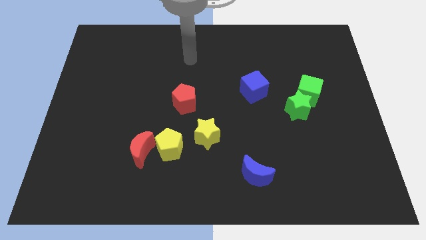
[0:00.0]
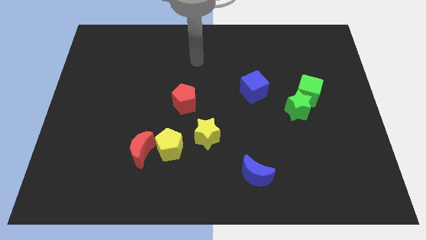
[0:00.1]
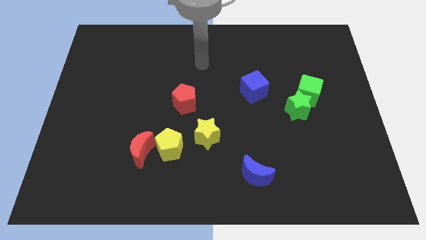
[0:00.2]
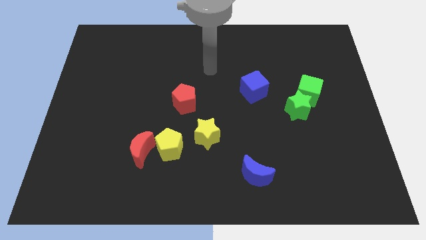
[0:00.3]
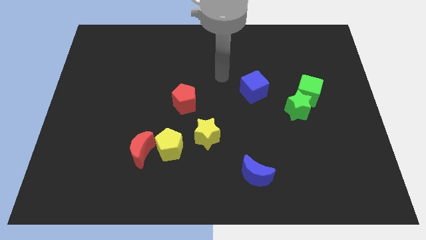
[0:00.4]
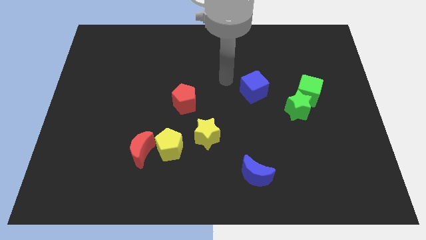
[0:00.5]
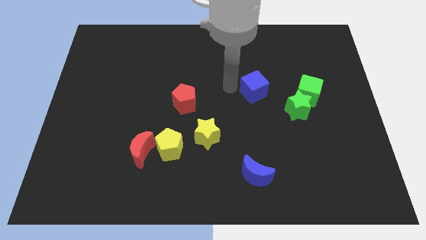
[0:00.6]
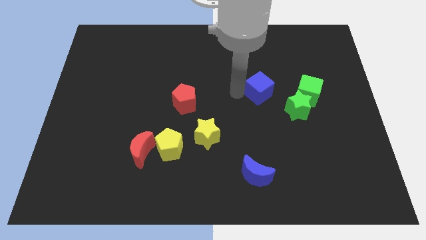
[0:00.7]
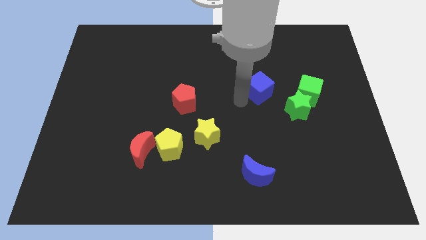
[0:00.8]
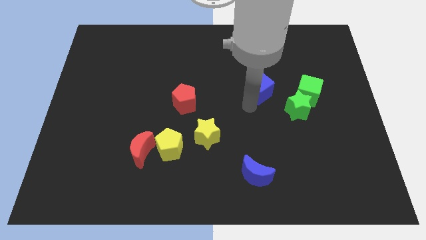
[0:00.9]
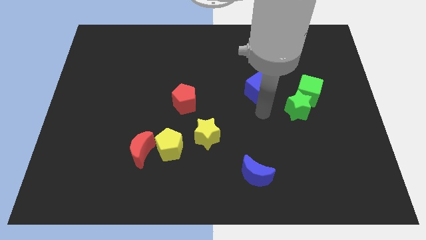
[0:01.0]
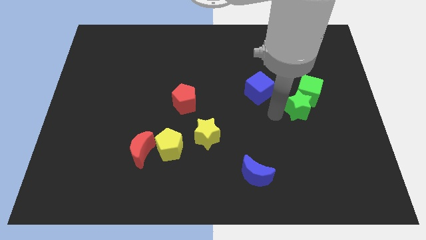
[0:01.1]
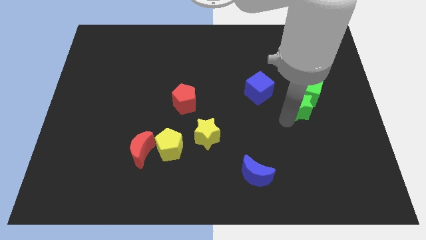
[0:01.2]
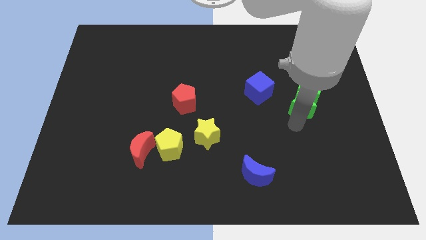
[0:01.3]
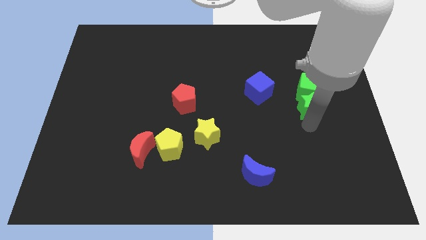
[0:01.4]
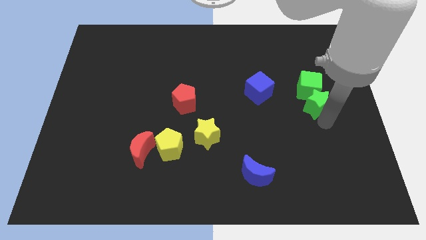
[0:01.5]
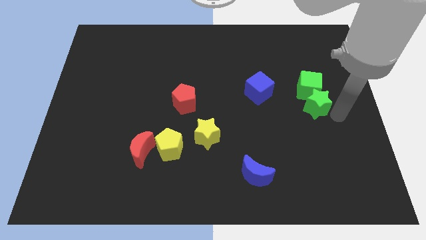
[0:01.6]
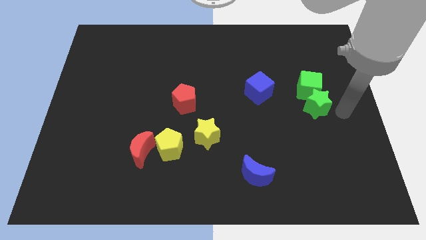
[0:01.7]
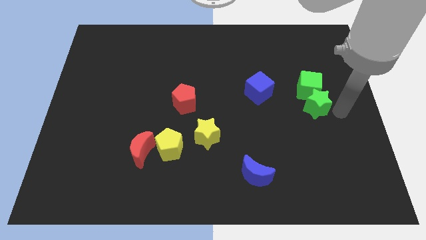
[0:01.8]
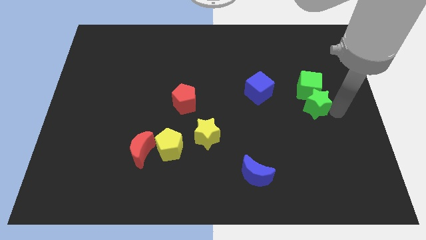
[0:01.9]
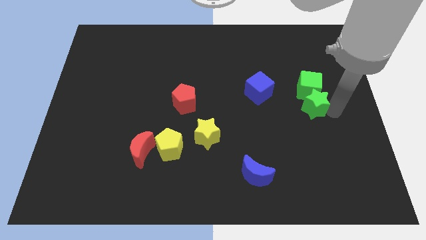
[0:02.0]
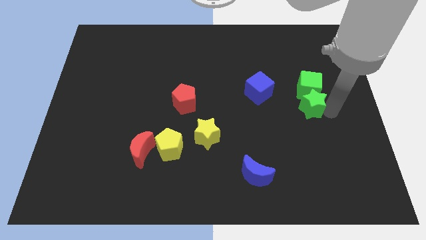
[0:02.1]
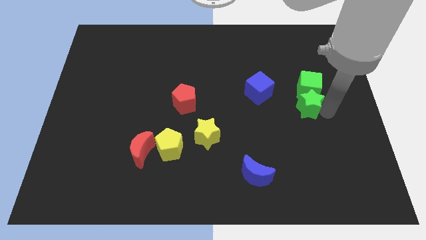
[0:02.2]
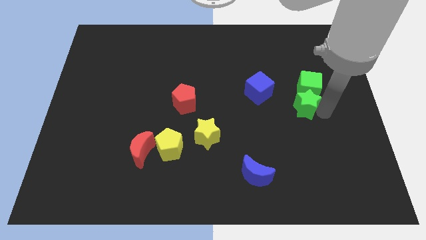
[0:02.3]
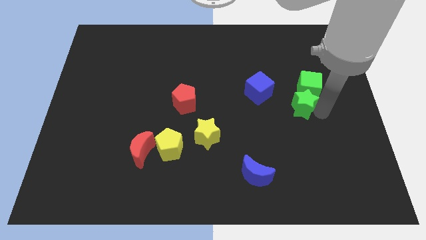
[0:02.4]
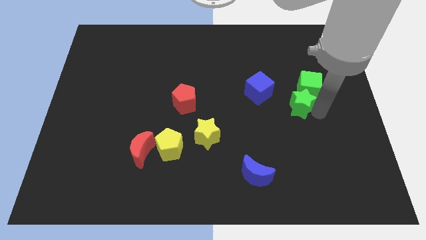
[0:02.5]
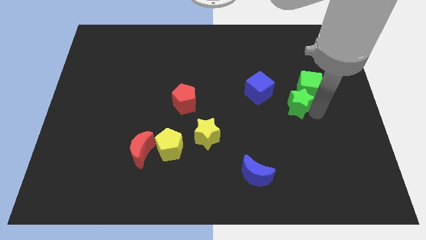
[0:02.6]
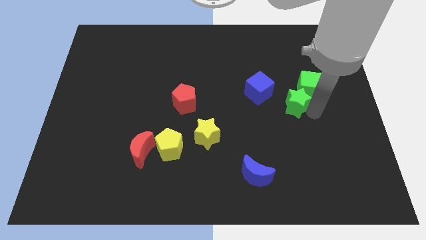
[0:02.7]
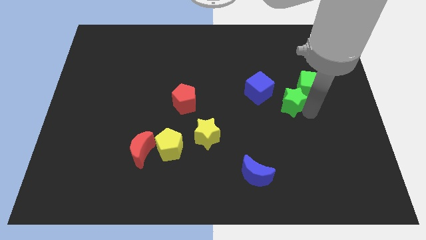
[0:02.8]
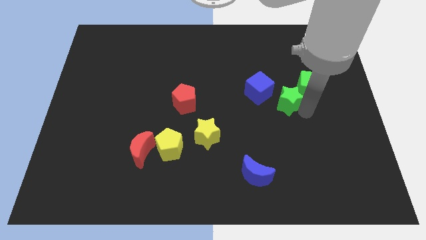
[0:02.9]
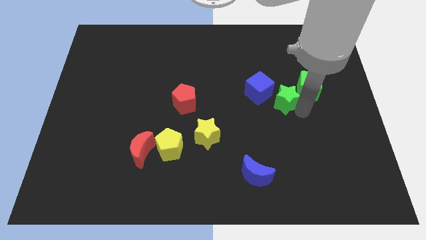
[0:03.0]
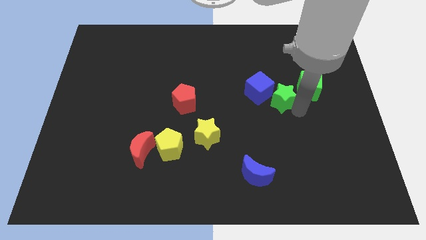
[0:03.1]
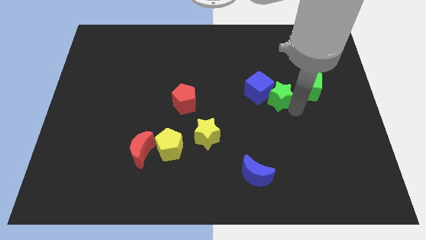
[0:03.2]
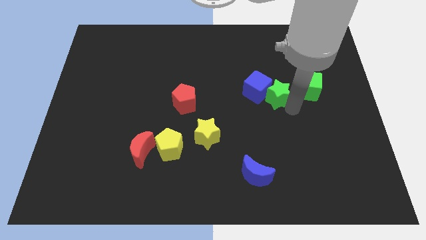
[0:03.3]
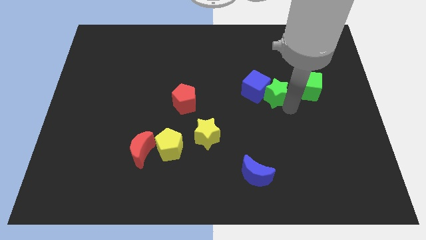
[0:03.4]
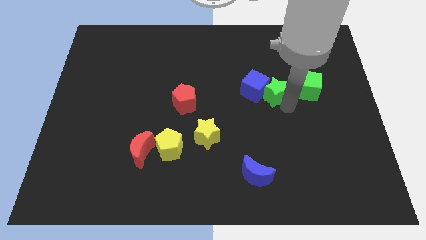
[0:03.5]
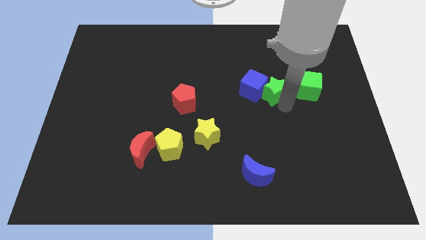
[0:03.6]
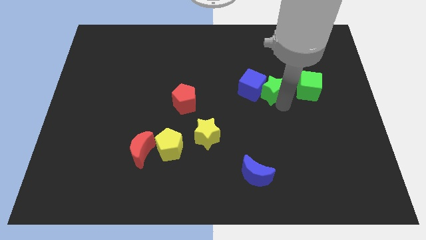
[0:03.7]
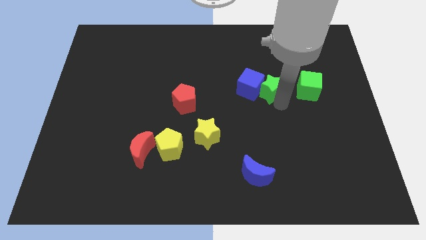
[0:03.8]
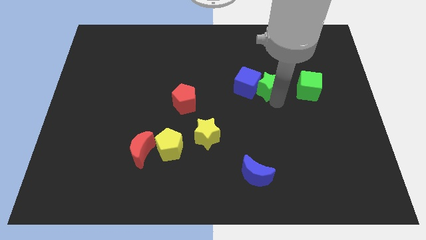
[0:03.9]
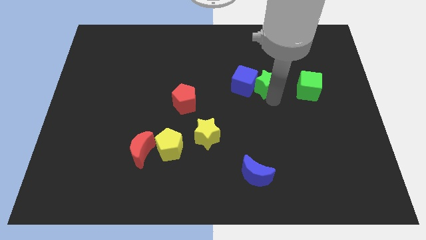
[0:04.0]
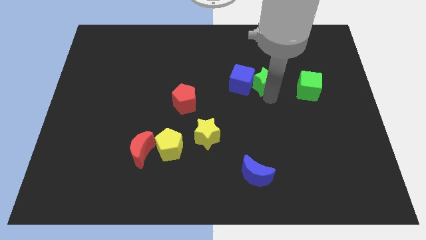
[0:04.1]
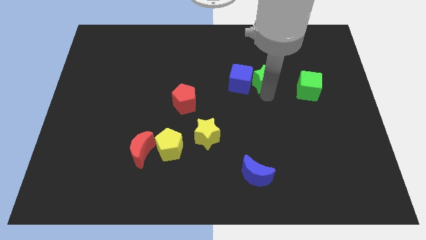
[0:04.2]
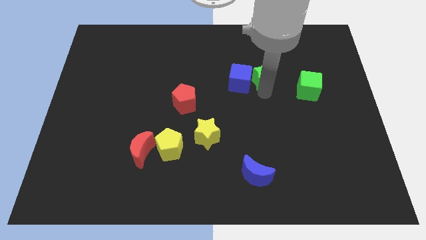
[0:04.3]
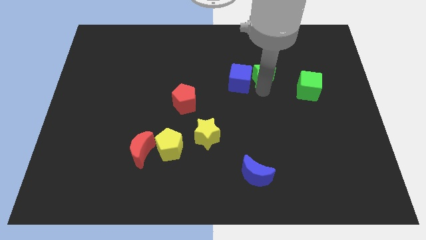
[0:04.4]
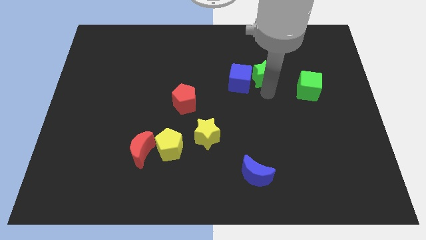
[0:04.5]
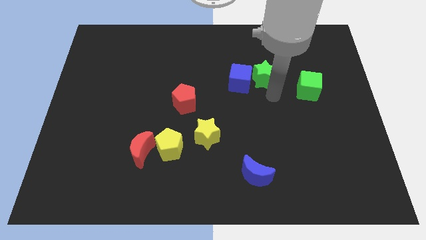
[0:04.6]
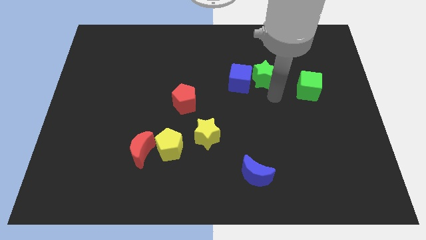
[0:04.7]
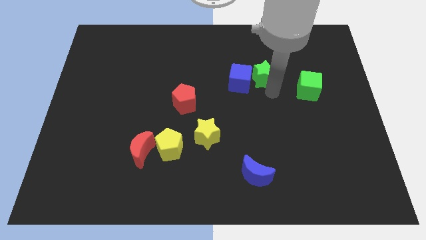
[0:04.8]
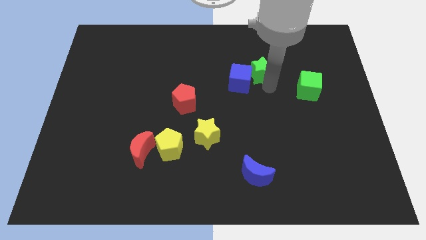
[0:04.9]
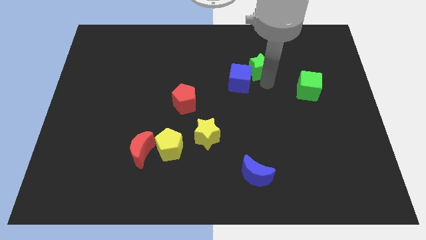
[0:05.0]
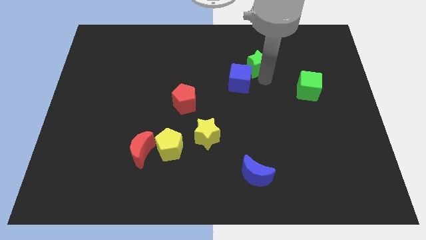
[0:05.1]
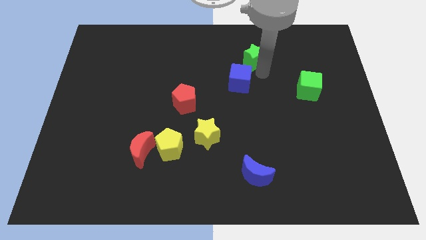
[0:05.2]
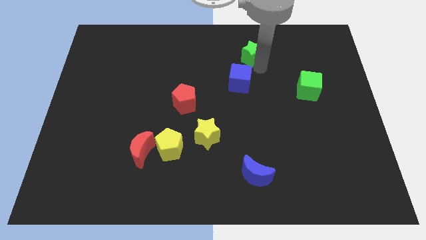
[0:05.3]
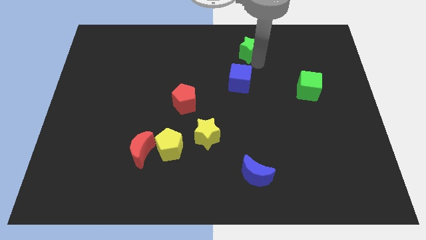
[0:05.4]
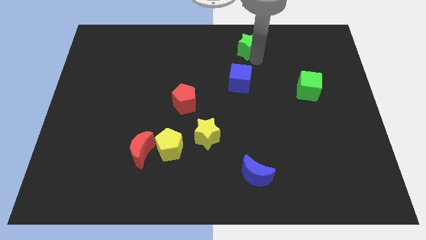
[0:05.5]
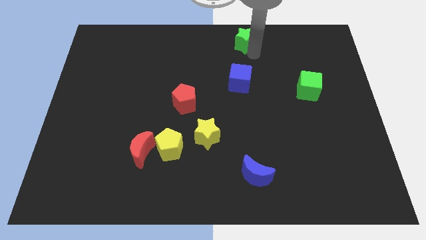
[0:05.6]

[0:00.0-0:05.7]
slide the green star to the top side
